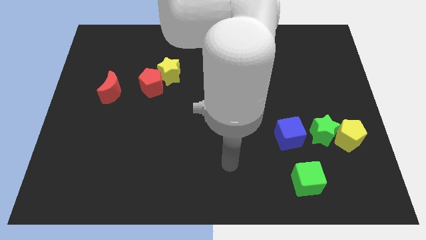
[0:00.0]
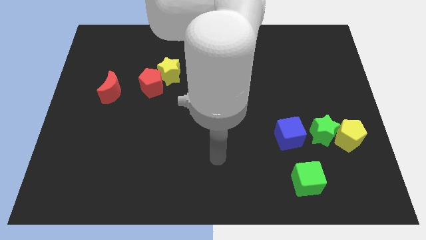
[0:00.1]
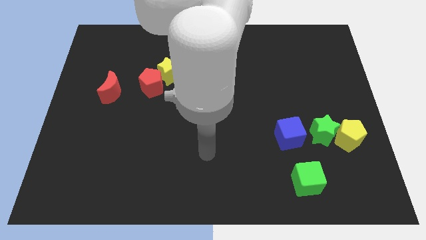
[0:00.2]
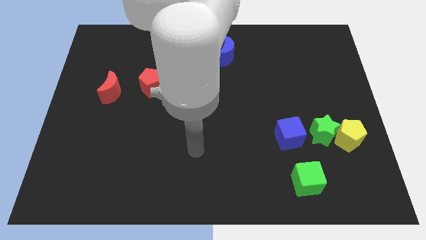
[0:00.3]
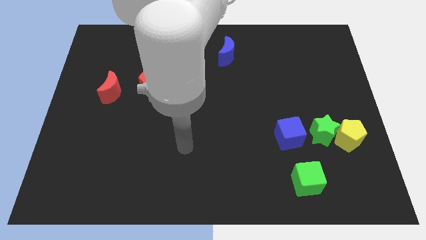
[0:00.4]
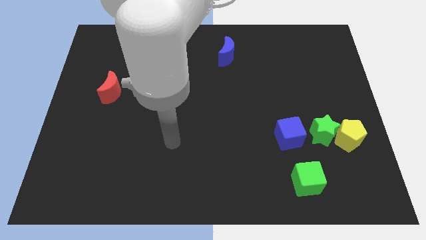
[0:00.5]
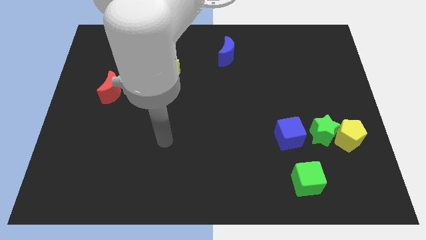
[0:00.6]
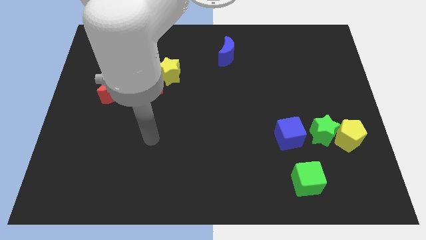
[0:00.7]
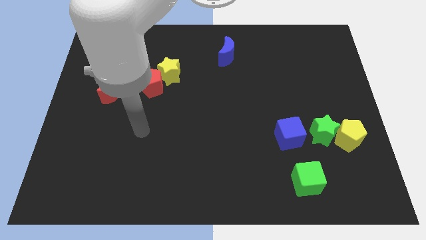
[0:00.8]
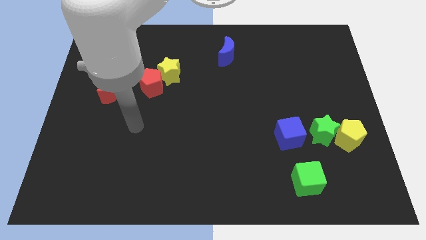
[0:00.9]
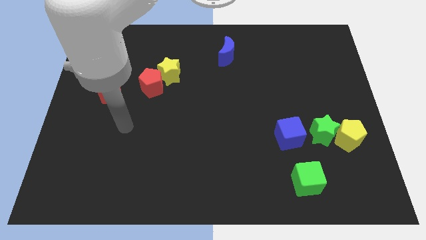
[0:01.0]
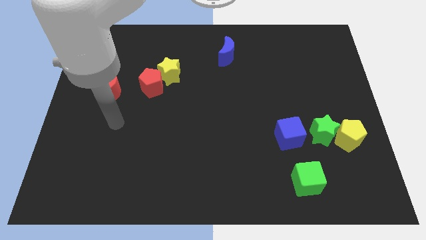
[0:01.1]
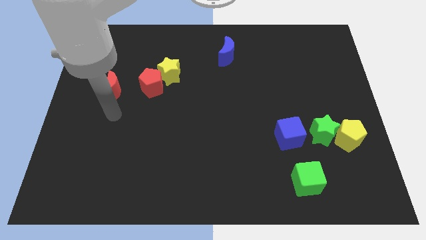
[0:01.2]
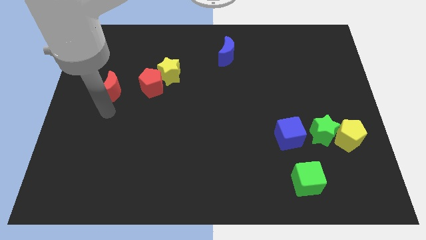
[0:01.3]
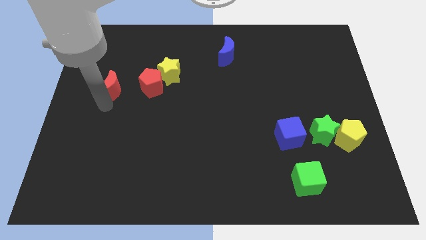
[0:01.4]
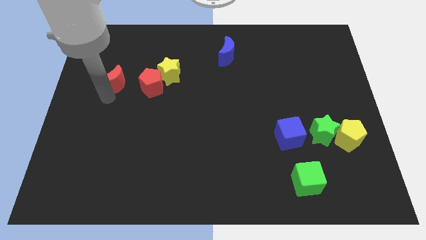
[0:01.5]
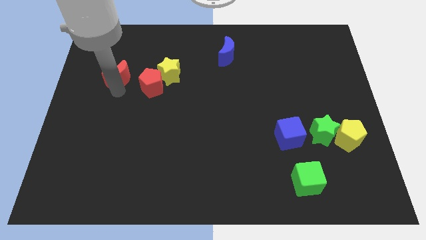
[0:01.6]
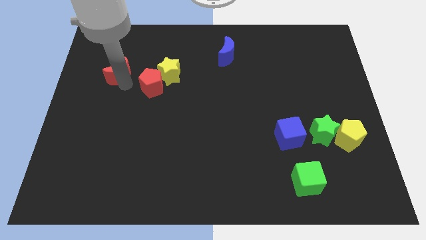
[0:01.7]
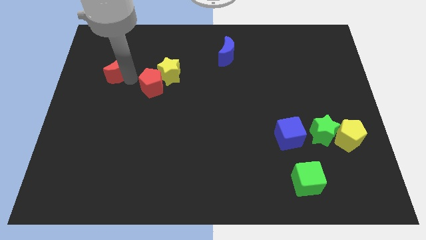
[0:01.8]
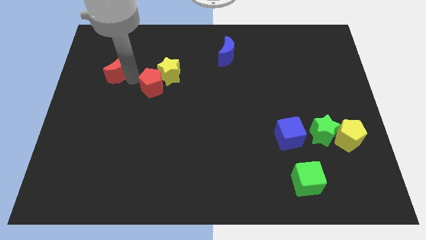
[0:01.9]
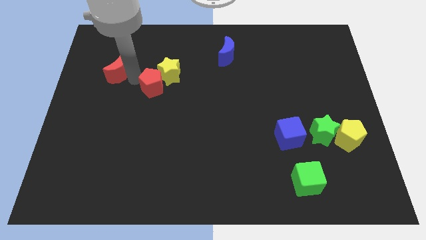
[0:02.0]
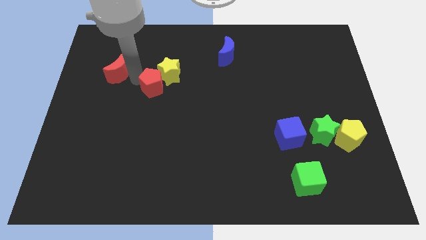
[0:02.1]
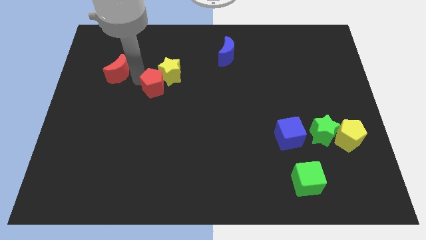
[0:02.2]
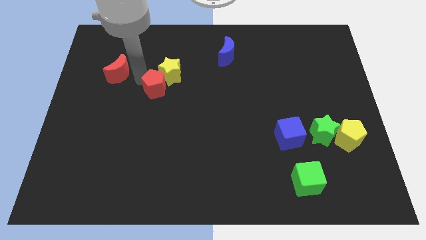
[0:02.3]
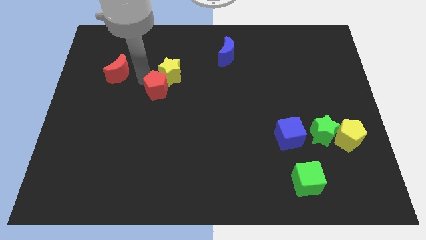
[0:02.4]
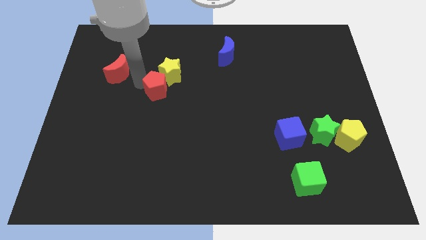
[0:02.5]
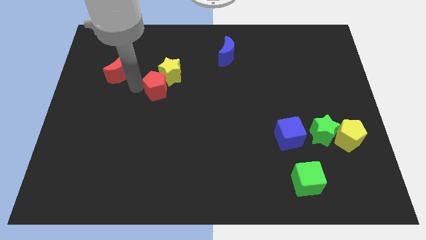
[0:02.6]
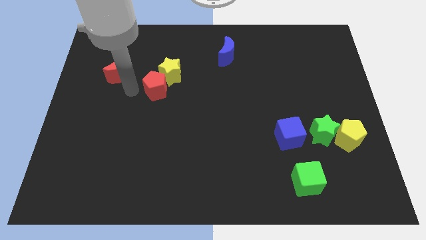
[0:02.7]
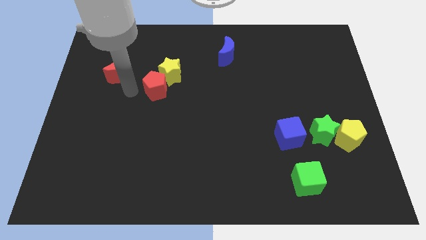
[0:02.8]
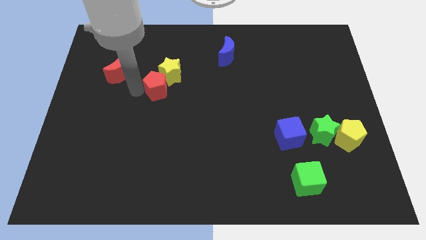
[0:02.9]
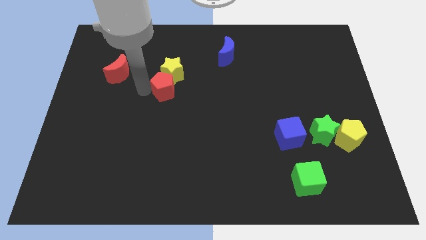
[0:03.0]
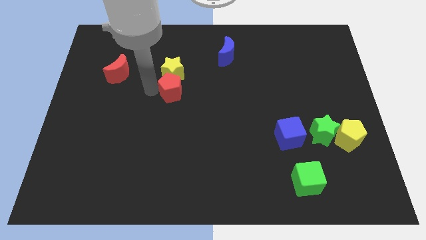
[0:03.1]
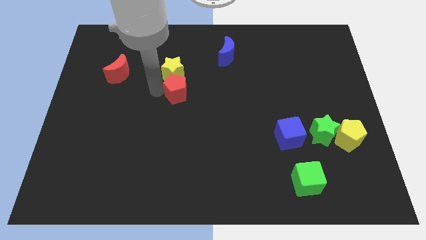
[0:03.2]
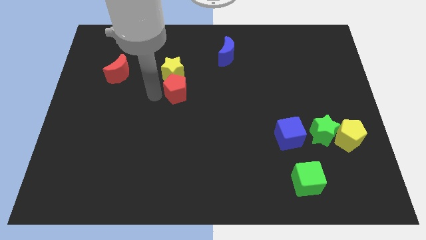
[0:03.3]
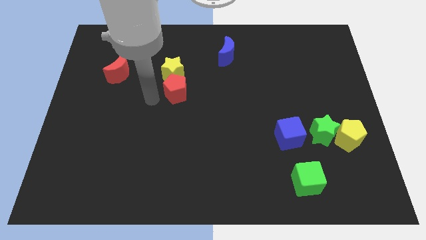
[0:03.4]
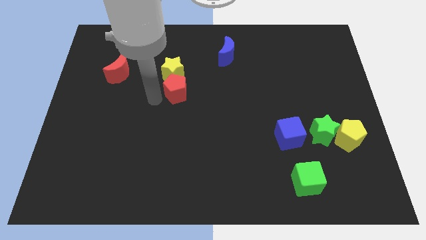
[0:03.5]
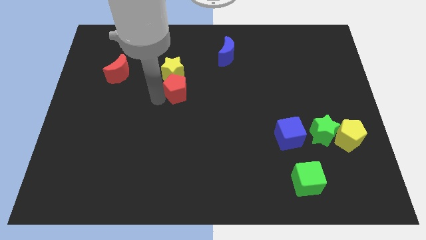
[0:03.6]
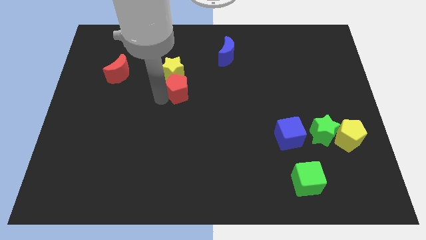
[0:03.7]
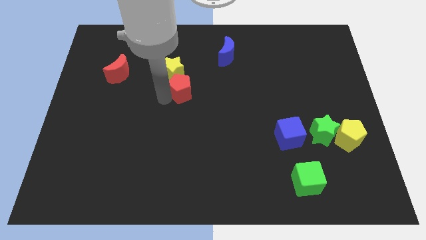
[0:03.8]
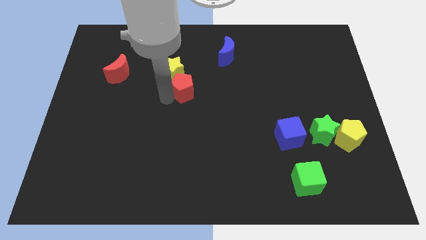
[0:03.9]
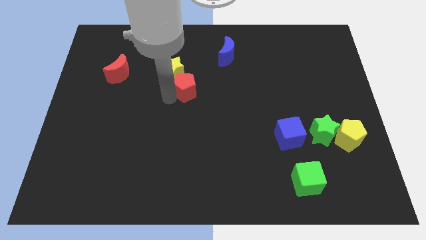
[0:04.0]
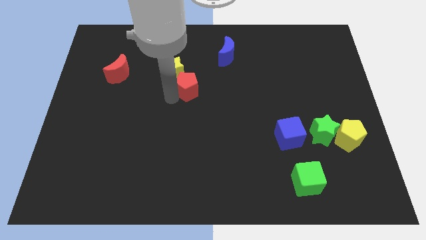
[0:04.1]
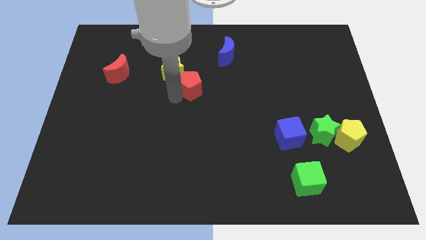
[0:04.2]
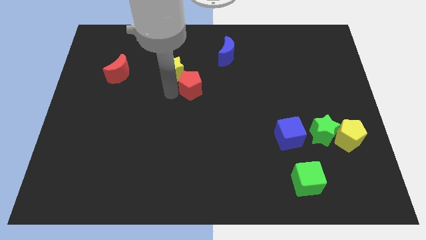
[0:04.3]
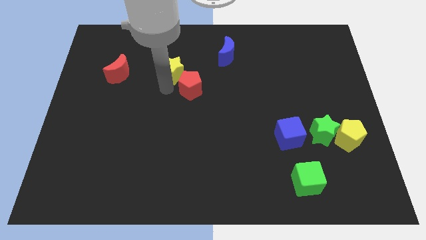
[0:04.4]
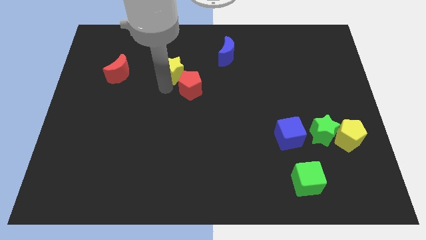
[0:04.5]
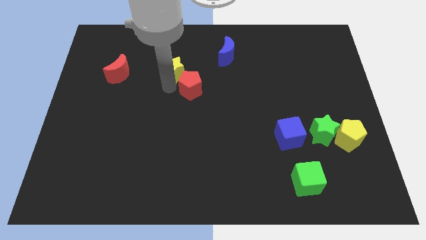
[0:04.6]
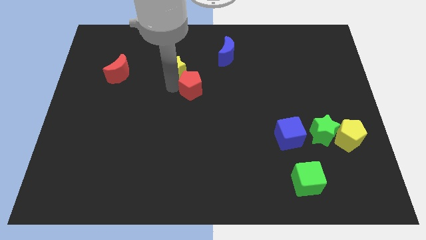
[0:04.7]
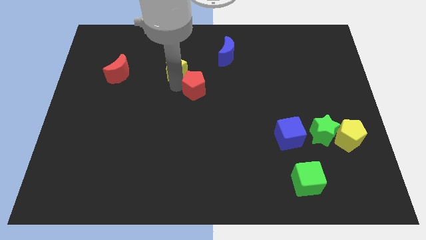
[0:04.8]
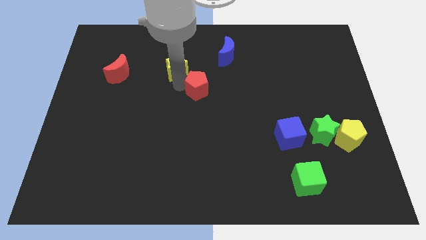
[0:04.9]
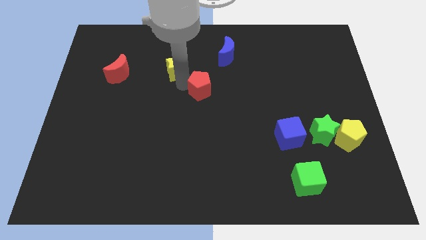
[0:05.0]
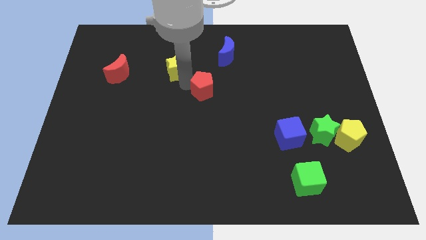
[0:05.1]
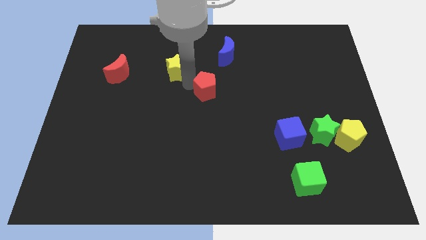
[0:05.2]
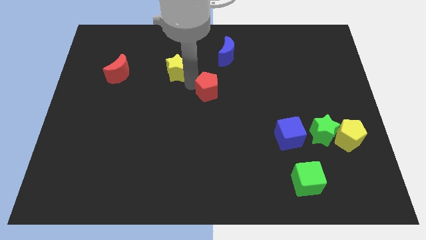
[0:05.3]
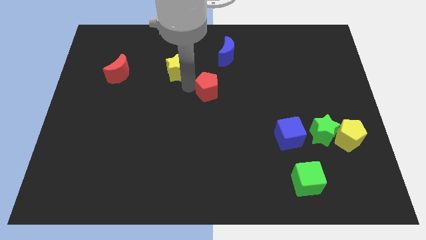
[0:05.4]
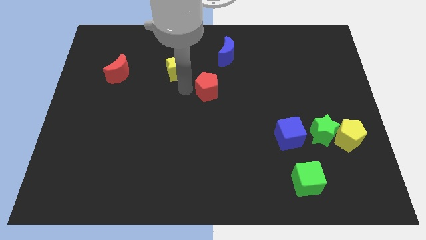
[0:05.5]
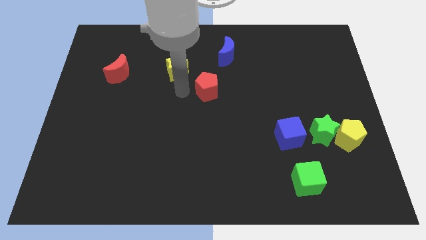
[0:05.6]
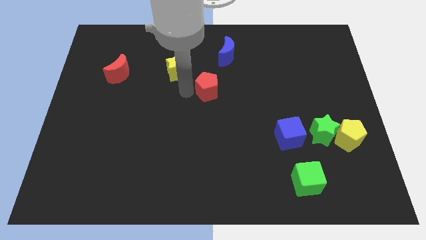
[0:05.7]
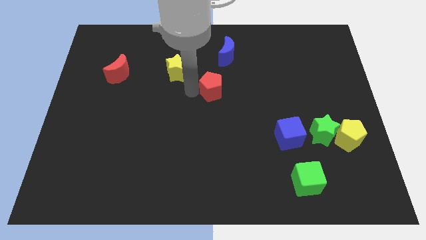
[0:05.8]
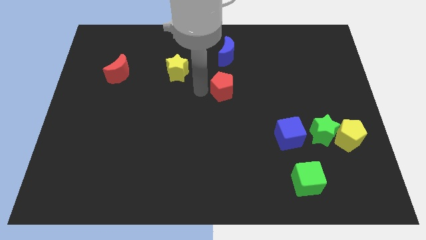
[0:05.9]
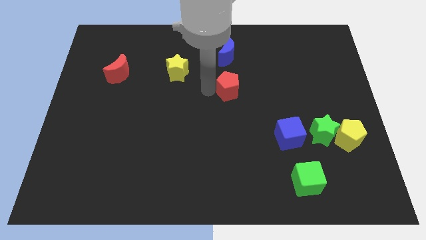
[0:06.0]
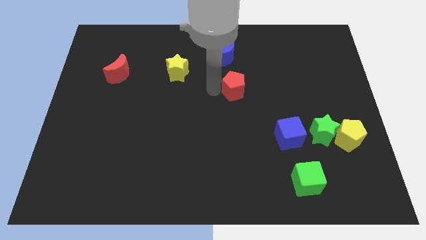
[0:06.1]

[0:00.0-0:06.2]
push the red pentagon to the right

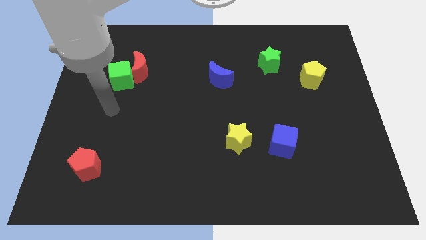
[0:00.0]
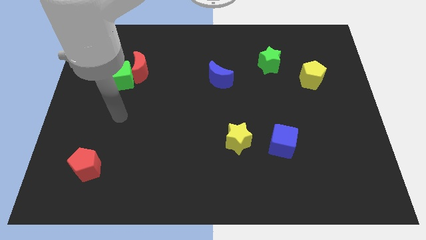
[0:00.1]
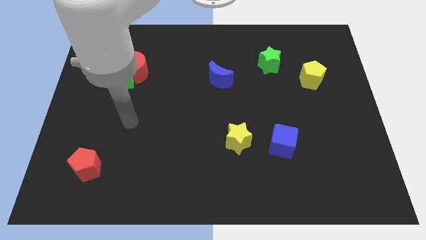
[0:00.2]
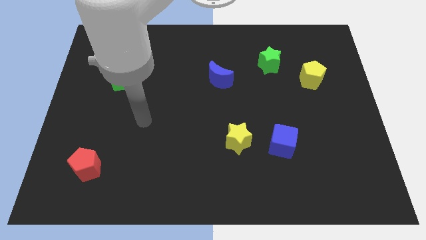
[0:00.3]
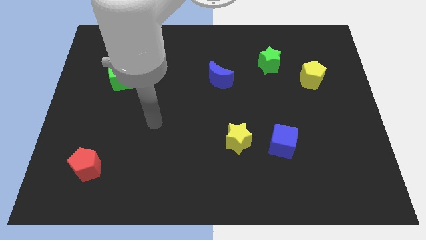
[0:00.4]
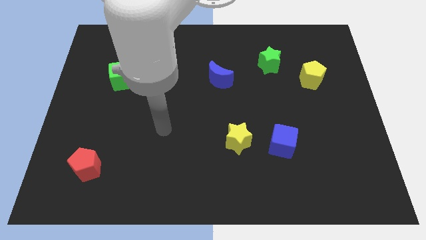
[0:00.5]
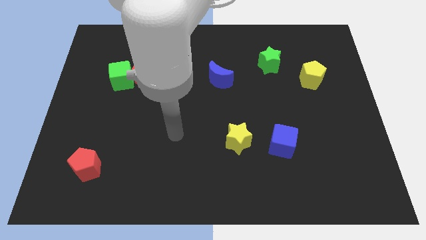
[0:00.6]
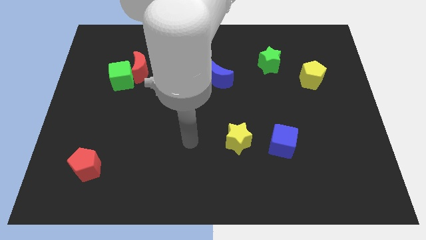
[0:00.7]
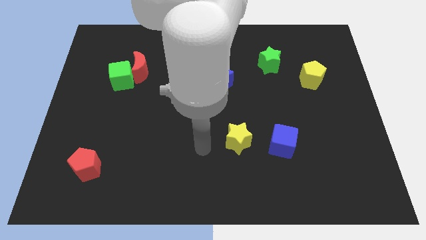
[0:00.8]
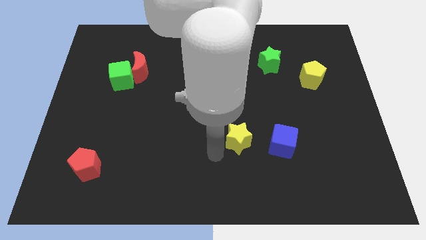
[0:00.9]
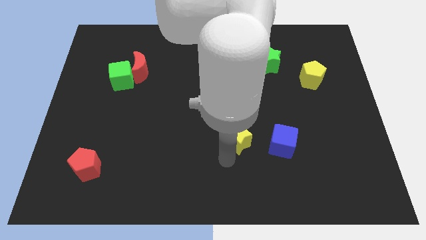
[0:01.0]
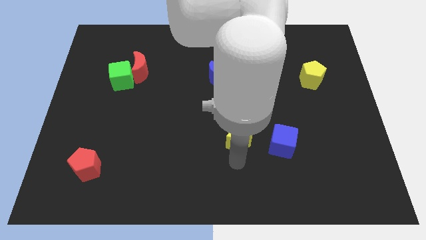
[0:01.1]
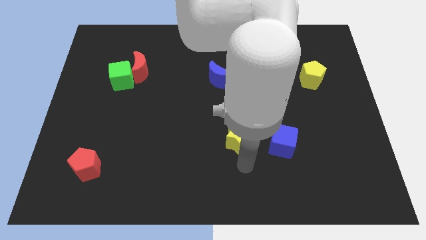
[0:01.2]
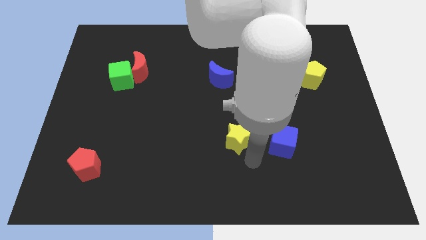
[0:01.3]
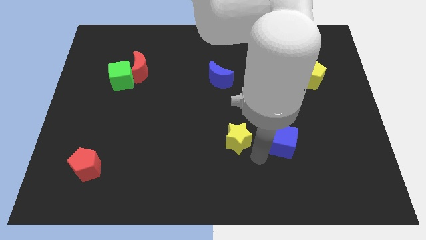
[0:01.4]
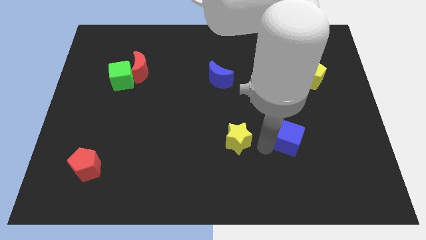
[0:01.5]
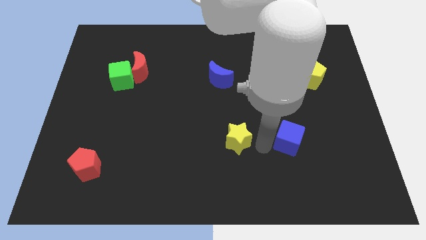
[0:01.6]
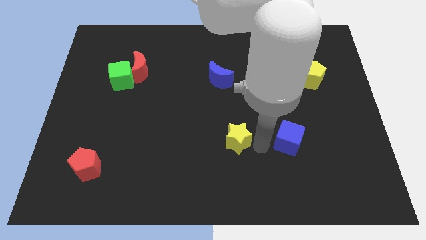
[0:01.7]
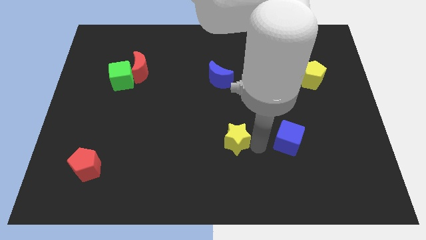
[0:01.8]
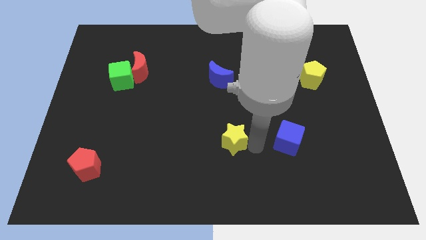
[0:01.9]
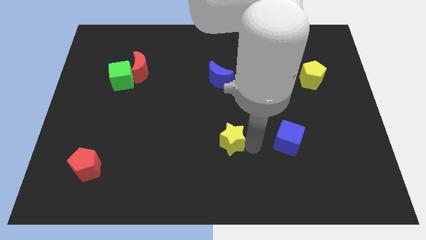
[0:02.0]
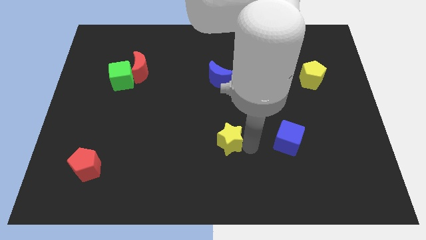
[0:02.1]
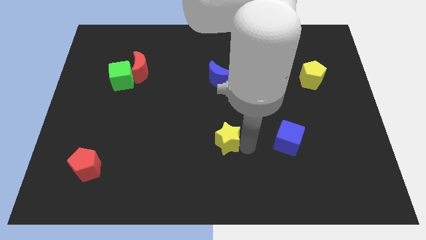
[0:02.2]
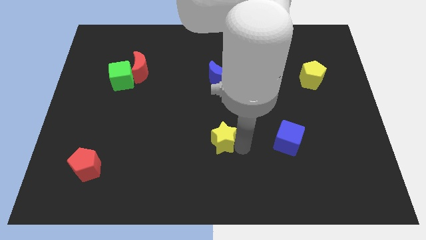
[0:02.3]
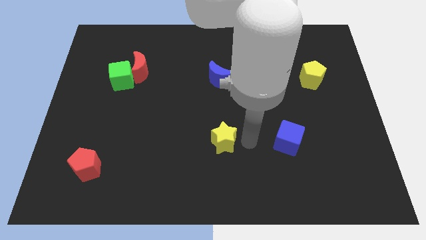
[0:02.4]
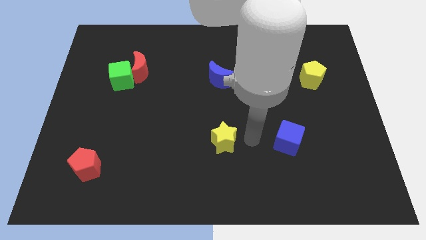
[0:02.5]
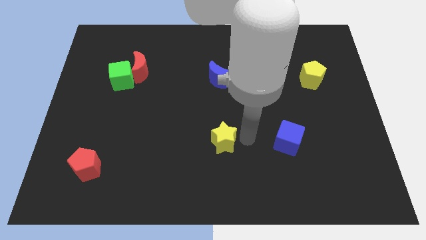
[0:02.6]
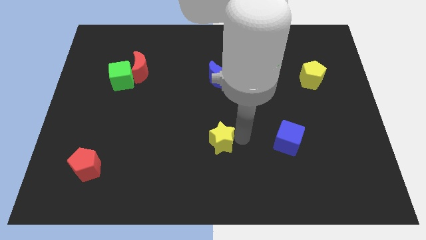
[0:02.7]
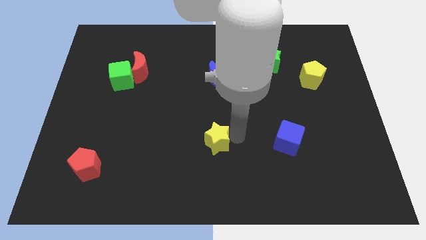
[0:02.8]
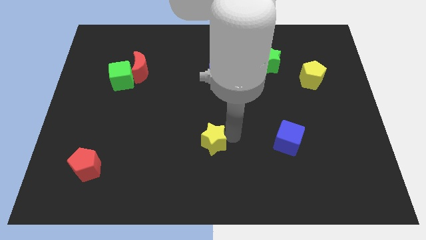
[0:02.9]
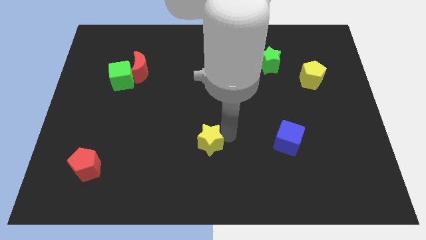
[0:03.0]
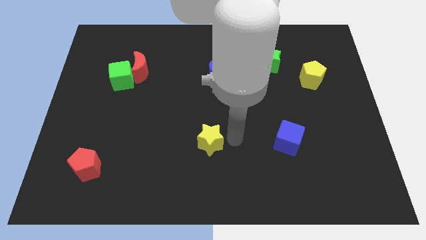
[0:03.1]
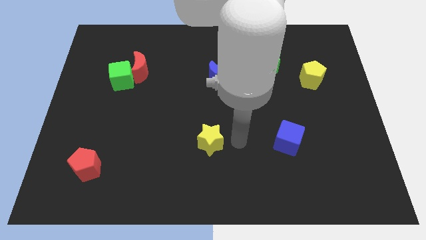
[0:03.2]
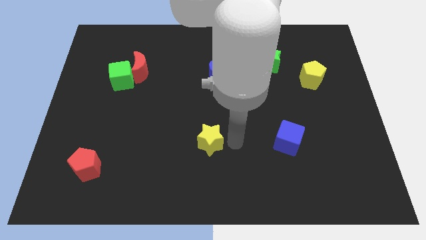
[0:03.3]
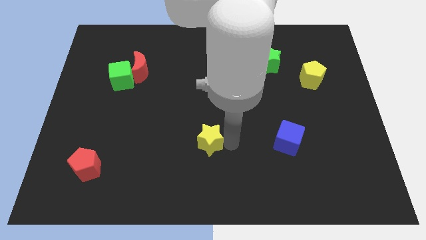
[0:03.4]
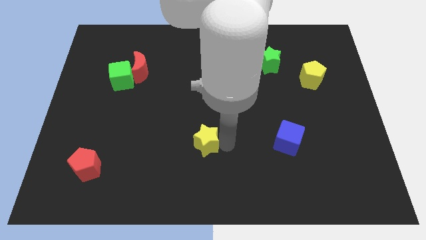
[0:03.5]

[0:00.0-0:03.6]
slide the yellow star a little to the left
